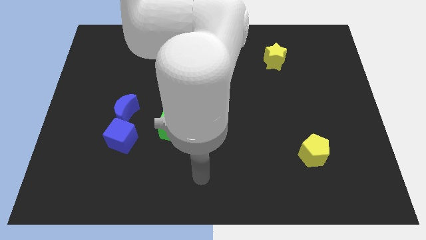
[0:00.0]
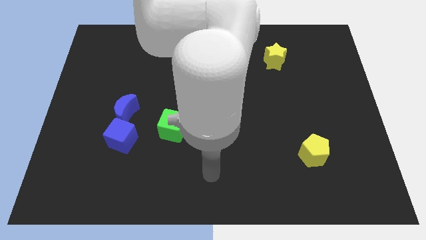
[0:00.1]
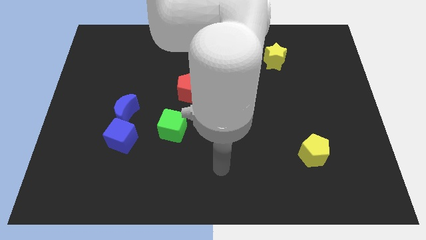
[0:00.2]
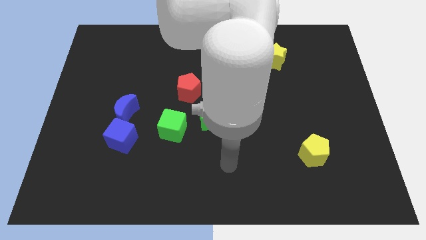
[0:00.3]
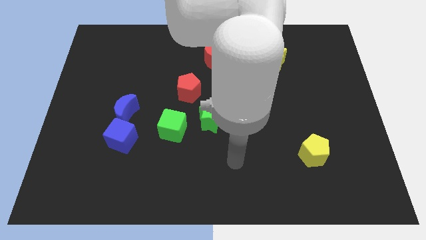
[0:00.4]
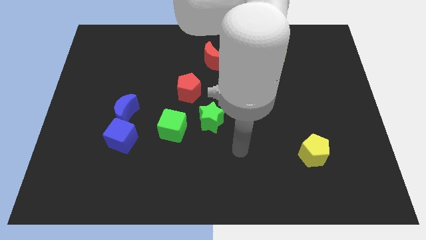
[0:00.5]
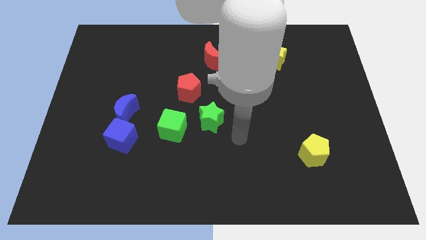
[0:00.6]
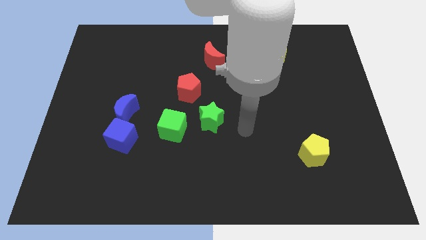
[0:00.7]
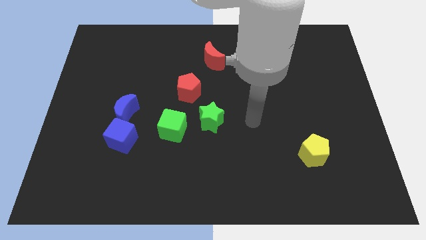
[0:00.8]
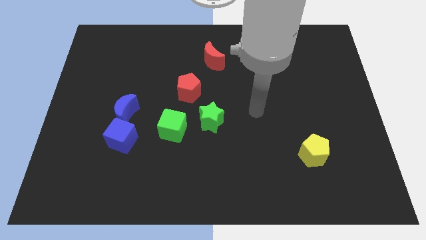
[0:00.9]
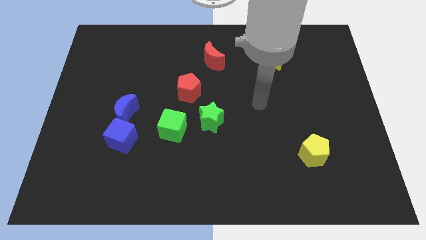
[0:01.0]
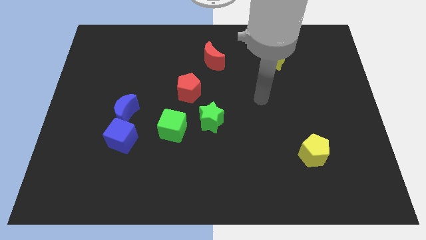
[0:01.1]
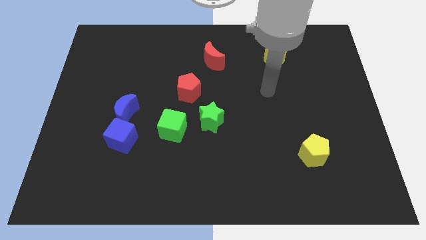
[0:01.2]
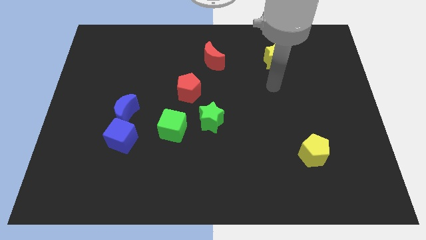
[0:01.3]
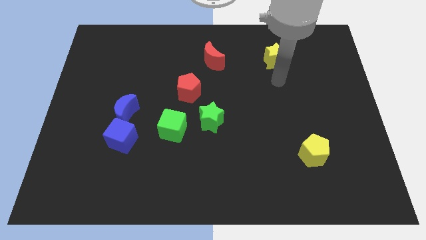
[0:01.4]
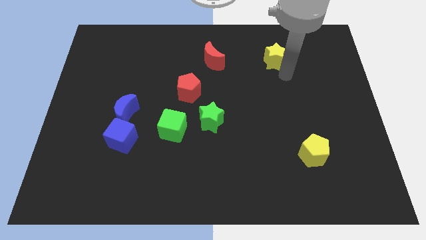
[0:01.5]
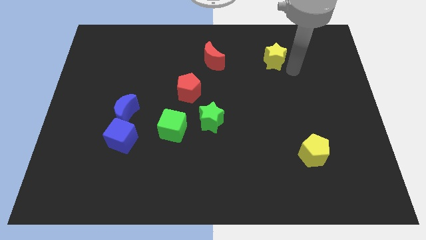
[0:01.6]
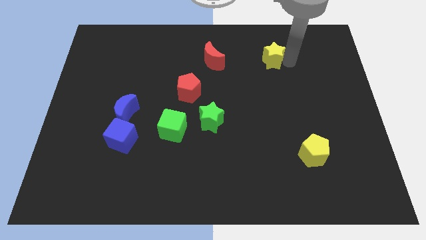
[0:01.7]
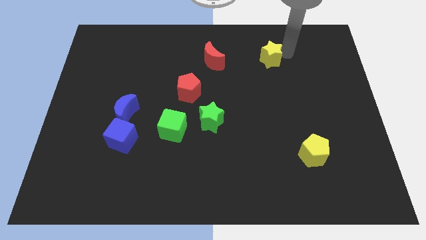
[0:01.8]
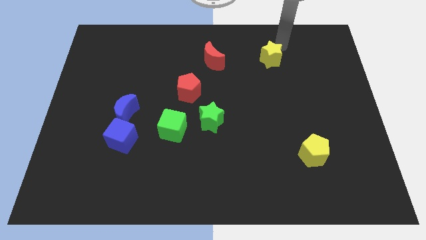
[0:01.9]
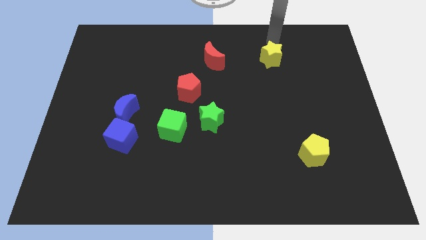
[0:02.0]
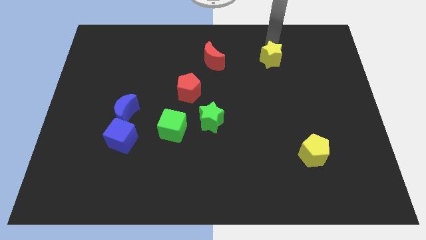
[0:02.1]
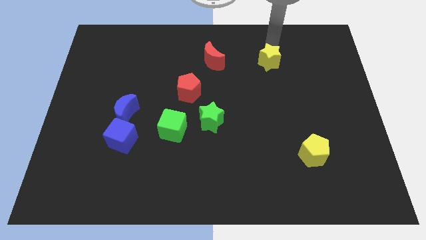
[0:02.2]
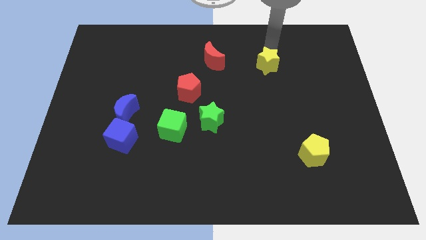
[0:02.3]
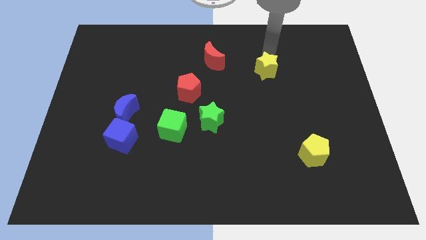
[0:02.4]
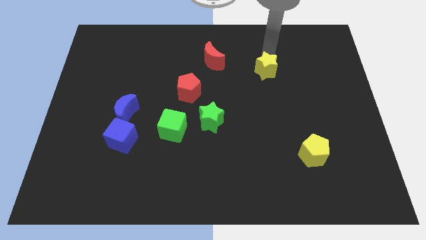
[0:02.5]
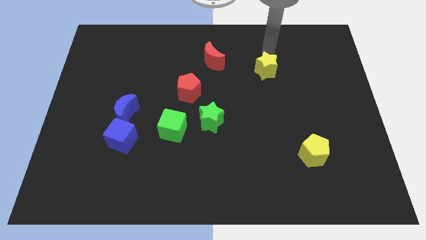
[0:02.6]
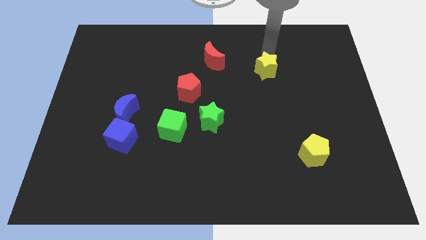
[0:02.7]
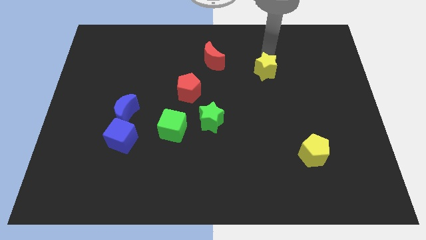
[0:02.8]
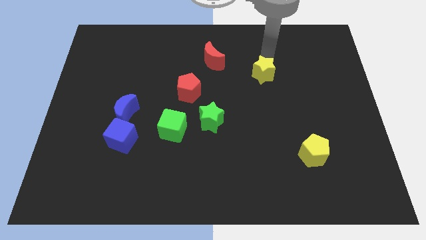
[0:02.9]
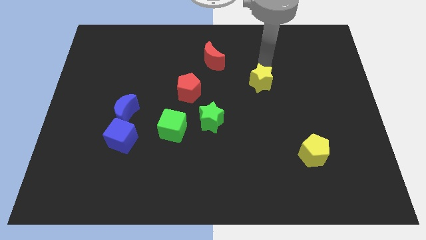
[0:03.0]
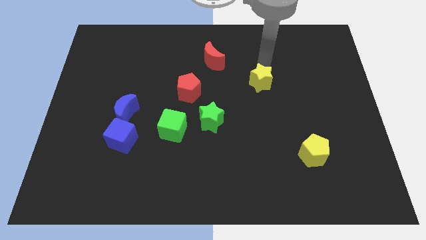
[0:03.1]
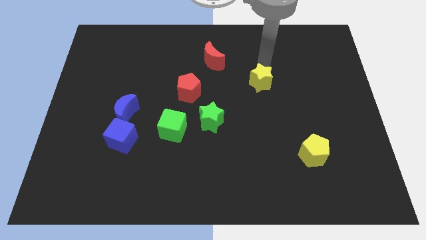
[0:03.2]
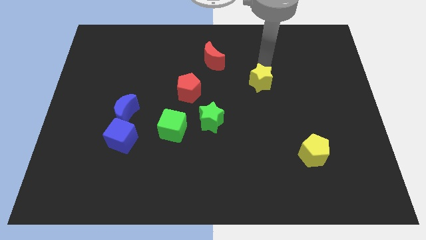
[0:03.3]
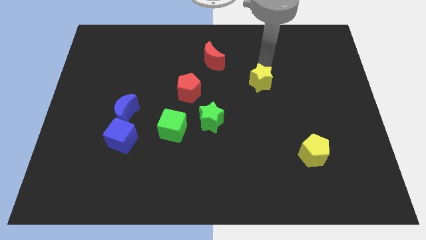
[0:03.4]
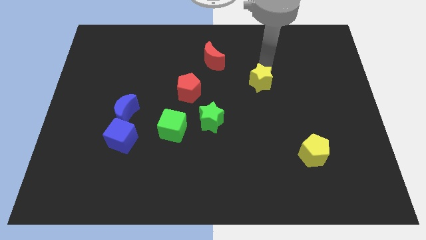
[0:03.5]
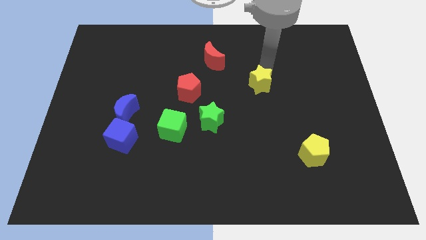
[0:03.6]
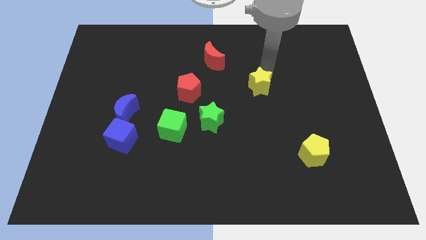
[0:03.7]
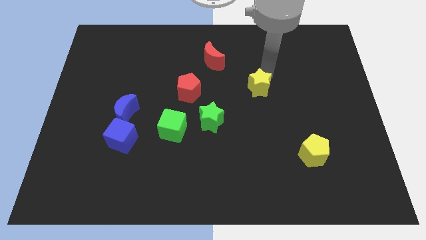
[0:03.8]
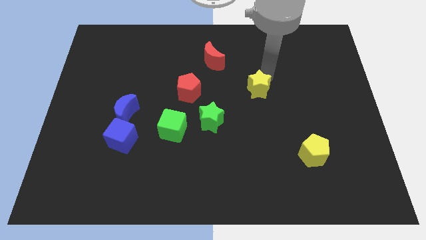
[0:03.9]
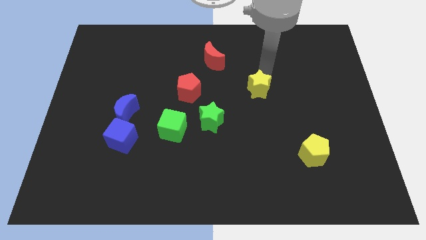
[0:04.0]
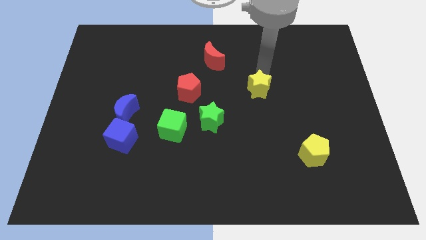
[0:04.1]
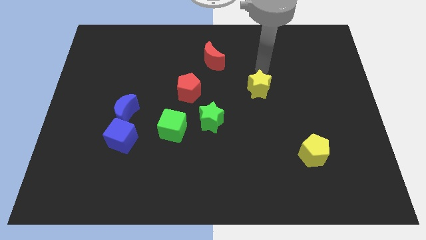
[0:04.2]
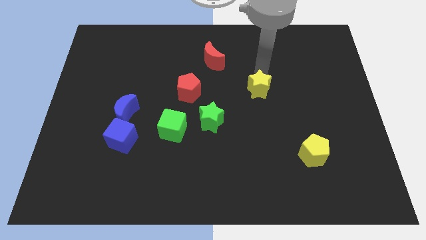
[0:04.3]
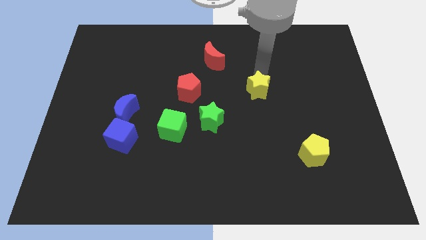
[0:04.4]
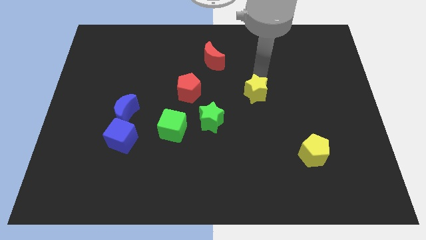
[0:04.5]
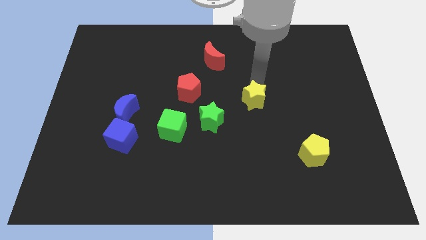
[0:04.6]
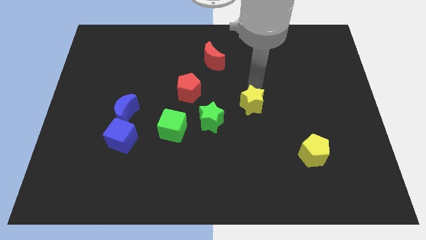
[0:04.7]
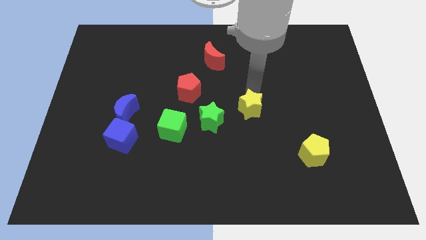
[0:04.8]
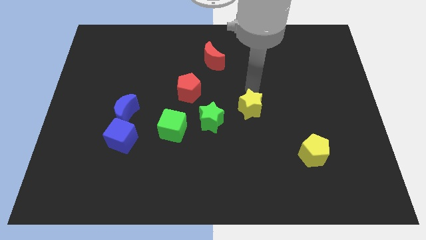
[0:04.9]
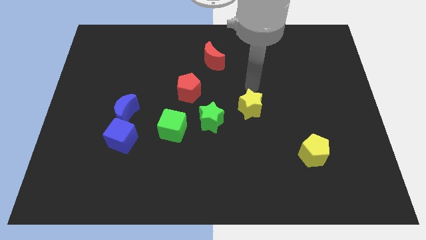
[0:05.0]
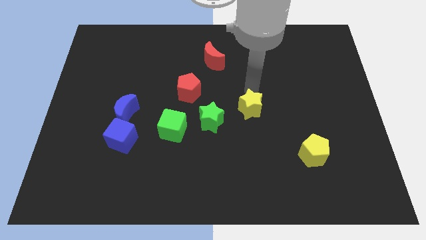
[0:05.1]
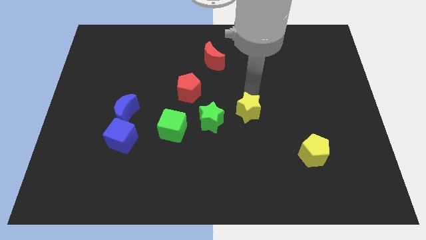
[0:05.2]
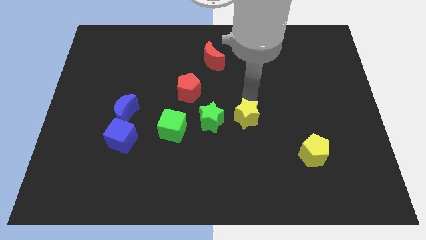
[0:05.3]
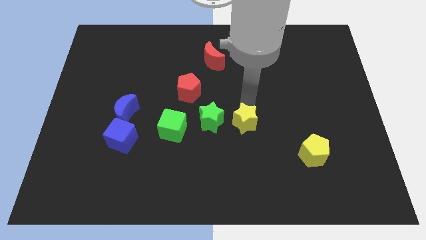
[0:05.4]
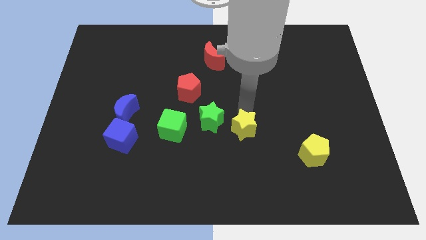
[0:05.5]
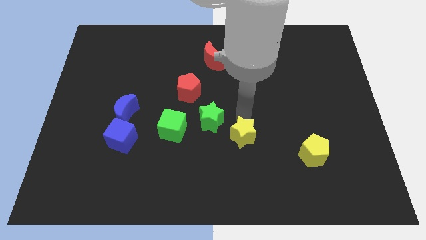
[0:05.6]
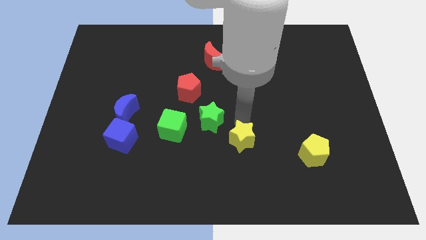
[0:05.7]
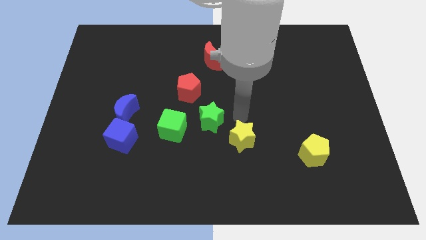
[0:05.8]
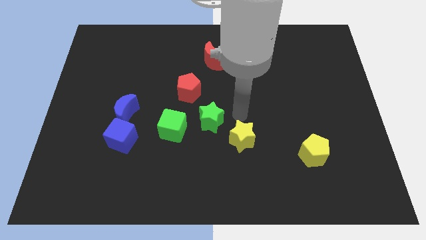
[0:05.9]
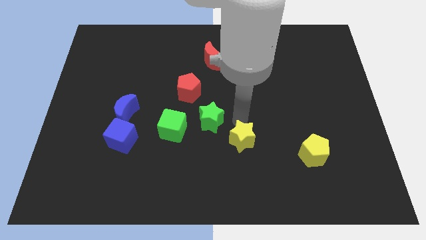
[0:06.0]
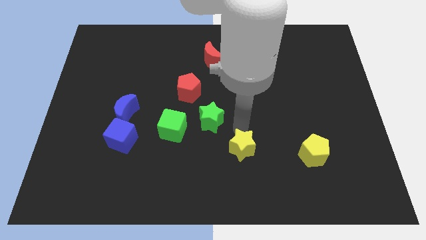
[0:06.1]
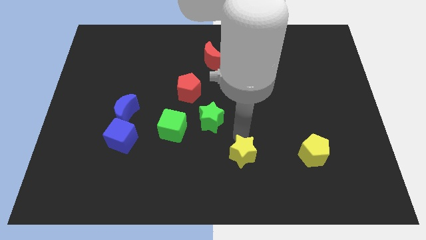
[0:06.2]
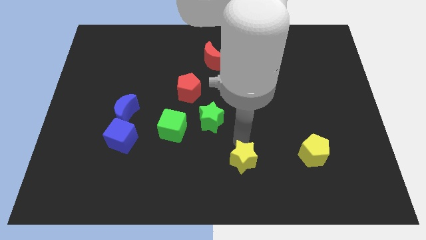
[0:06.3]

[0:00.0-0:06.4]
push the yellow star to the bottom side

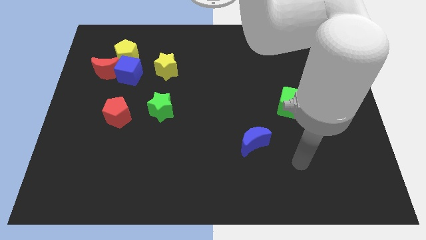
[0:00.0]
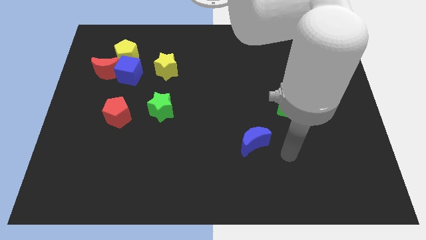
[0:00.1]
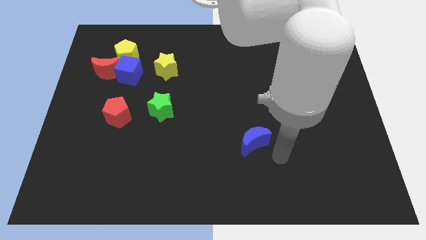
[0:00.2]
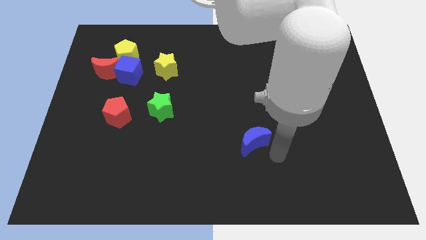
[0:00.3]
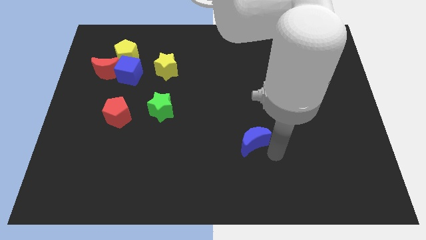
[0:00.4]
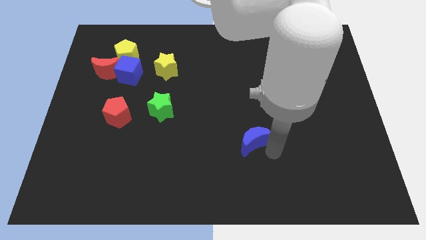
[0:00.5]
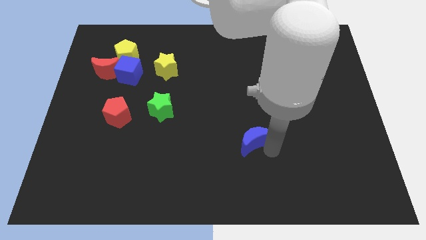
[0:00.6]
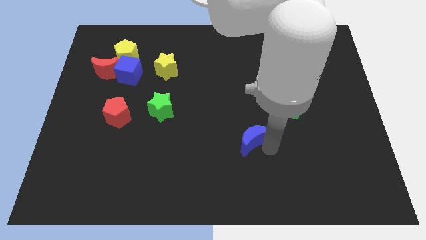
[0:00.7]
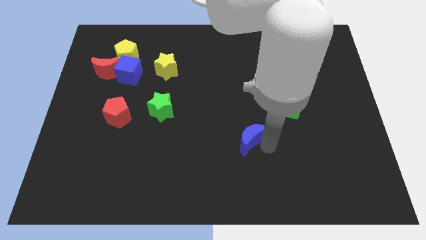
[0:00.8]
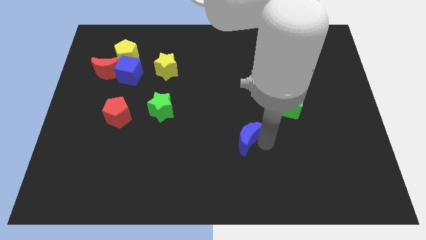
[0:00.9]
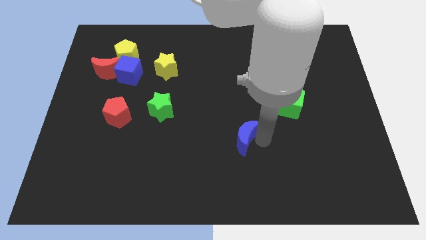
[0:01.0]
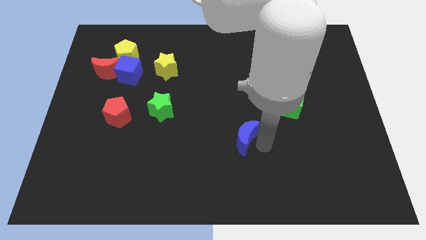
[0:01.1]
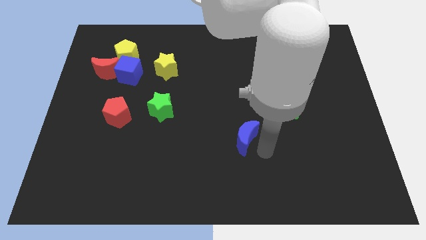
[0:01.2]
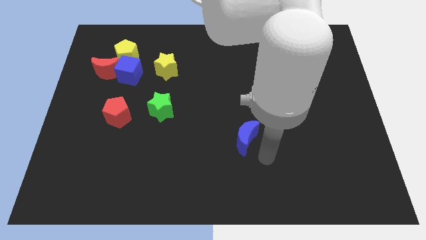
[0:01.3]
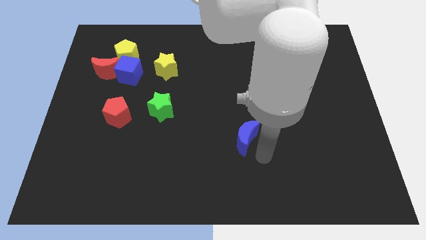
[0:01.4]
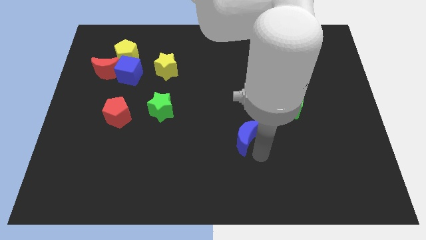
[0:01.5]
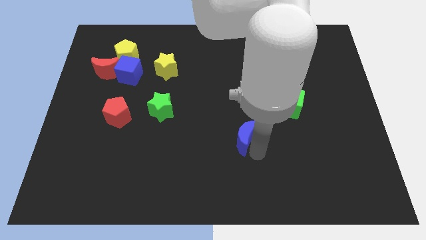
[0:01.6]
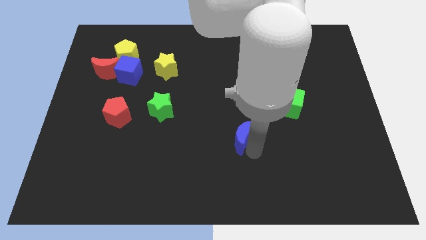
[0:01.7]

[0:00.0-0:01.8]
move the blue moon to the center
